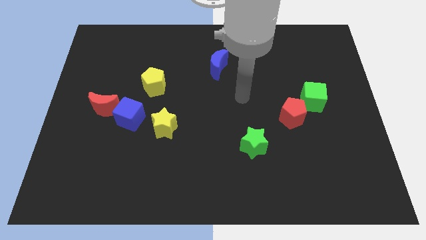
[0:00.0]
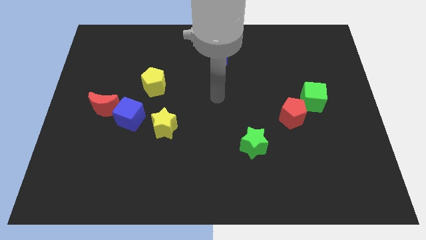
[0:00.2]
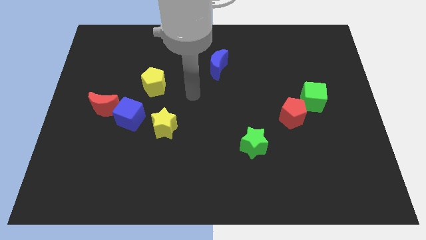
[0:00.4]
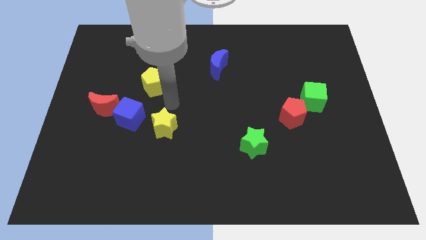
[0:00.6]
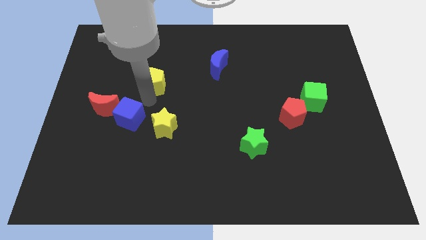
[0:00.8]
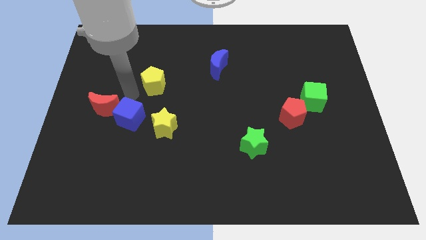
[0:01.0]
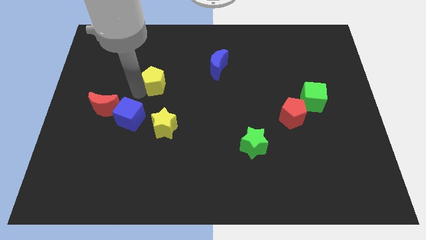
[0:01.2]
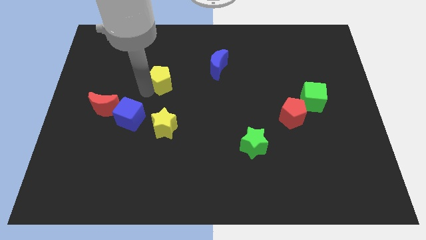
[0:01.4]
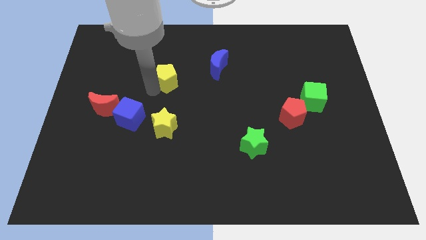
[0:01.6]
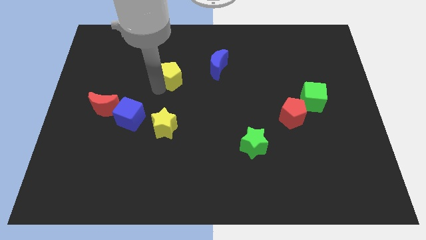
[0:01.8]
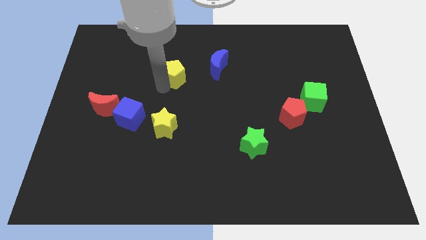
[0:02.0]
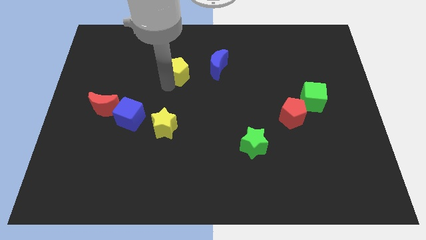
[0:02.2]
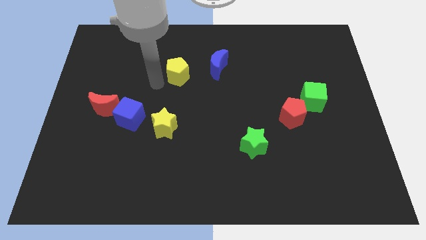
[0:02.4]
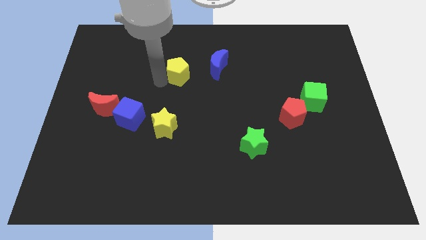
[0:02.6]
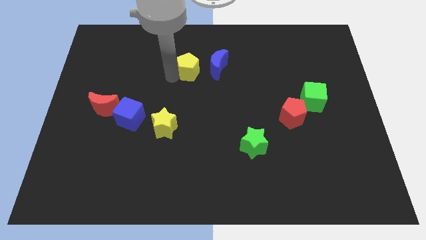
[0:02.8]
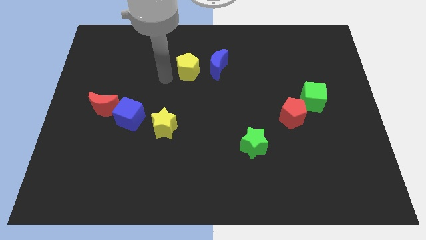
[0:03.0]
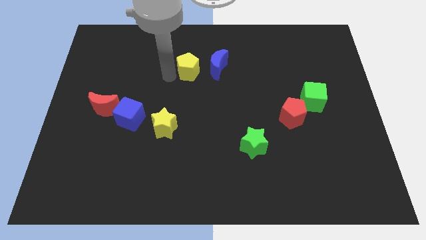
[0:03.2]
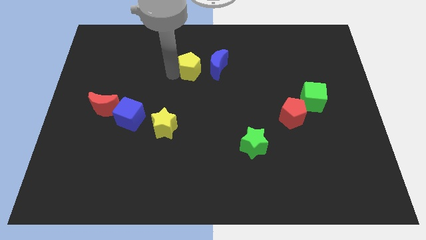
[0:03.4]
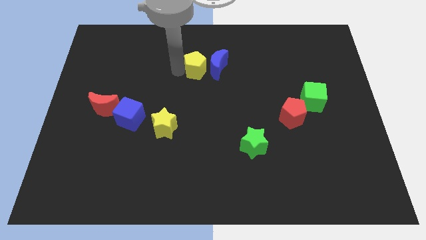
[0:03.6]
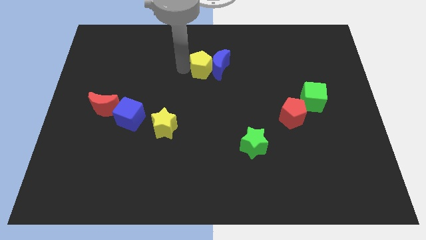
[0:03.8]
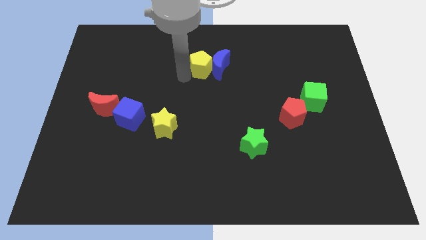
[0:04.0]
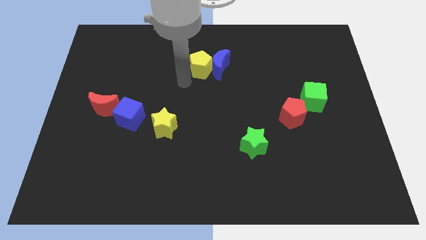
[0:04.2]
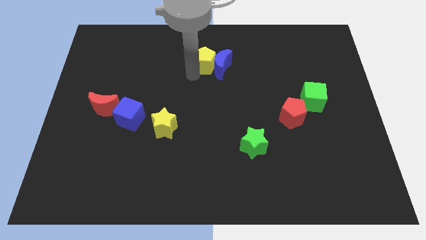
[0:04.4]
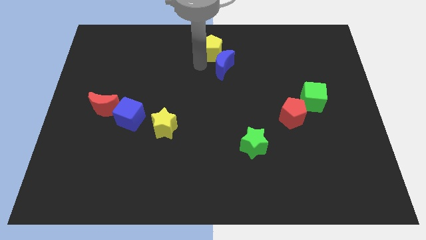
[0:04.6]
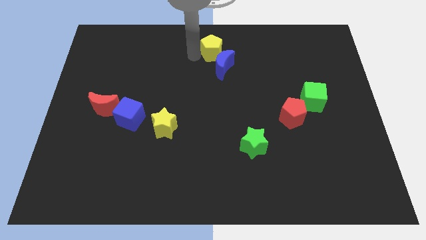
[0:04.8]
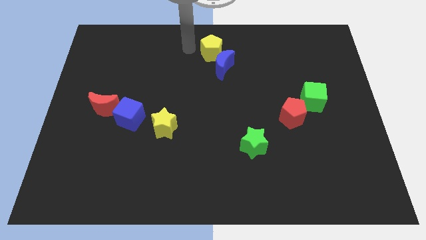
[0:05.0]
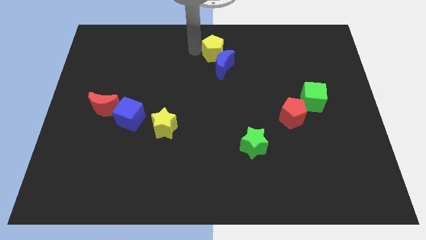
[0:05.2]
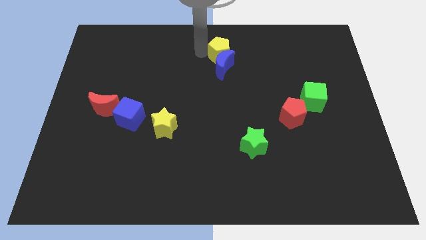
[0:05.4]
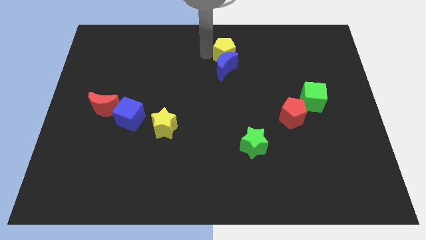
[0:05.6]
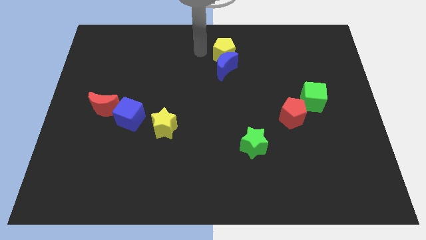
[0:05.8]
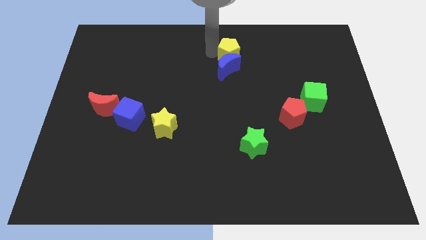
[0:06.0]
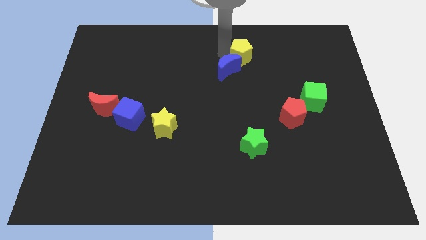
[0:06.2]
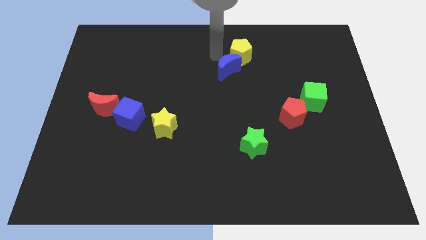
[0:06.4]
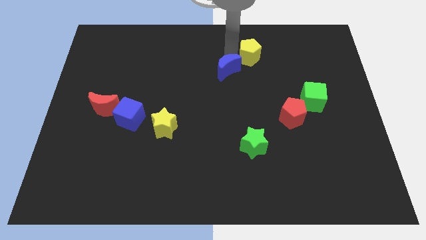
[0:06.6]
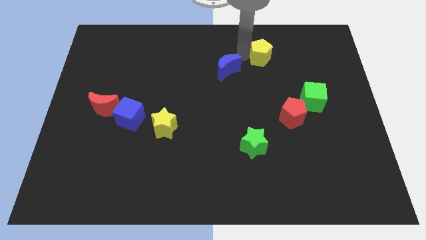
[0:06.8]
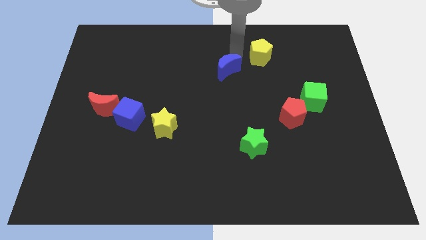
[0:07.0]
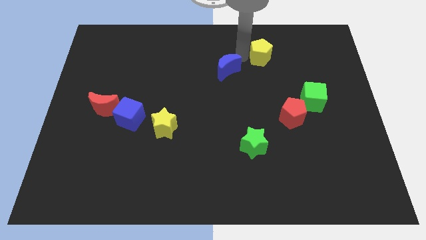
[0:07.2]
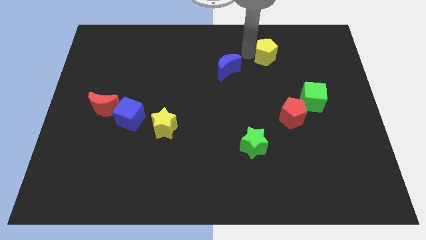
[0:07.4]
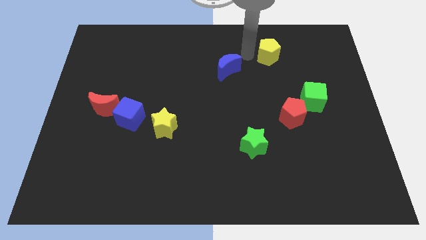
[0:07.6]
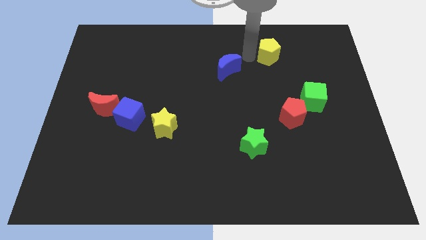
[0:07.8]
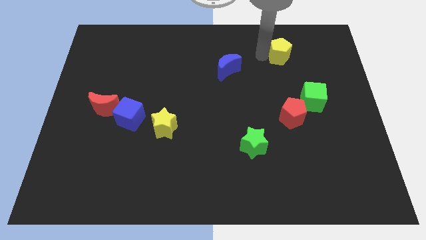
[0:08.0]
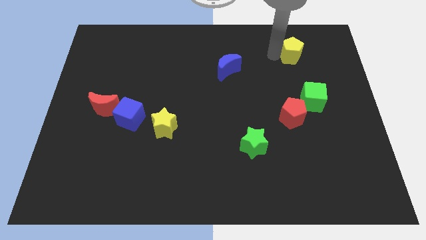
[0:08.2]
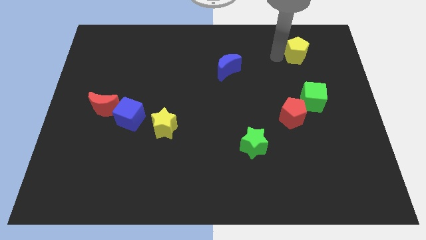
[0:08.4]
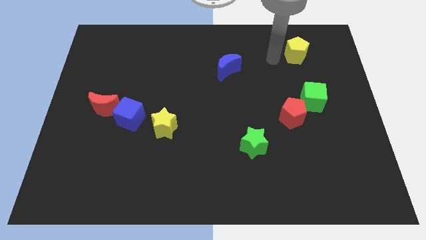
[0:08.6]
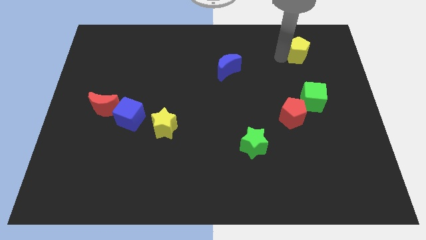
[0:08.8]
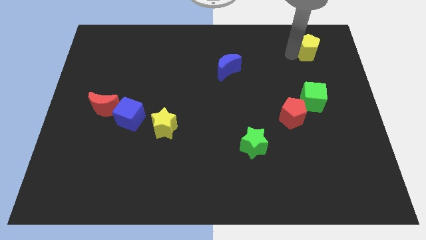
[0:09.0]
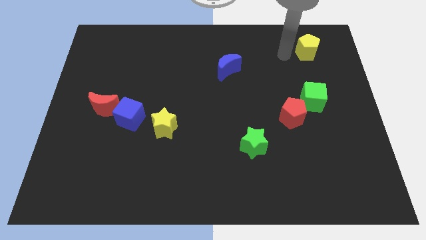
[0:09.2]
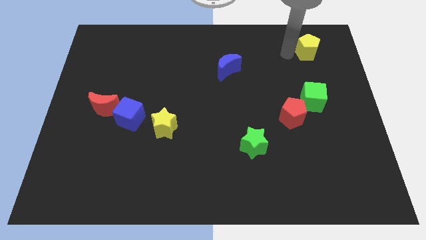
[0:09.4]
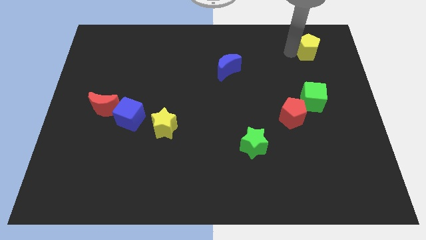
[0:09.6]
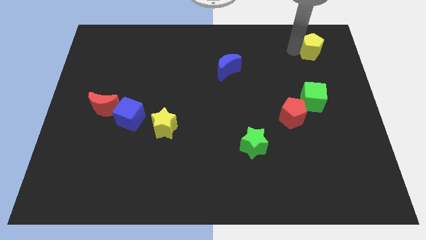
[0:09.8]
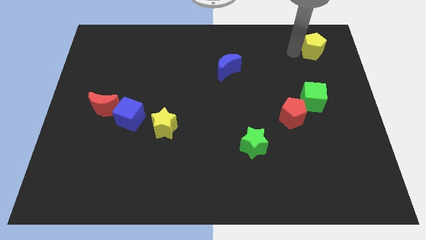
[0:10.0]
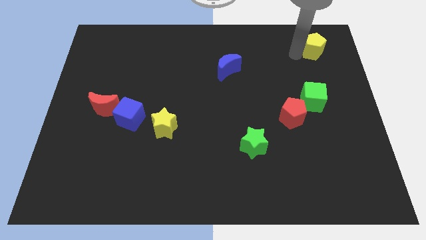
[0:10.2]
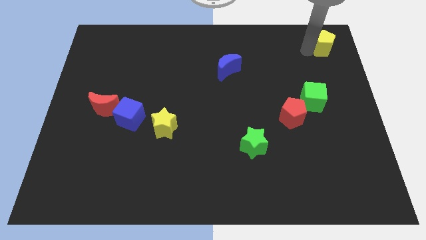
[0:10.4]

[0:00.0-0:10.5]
slide the yellow pentagon to the top right of the board

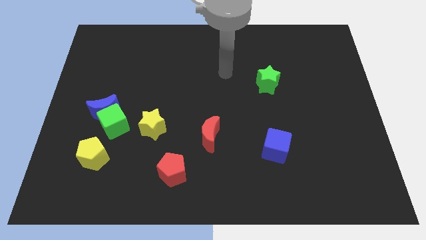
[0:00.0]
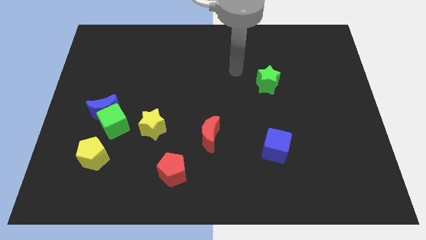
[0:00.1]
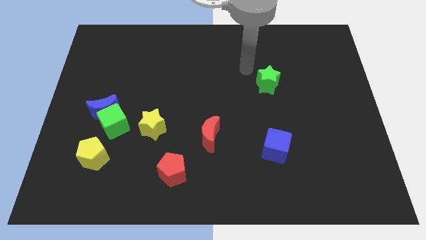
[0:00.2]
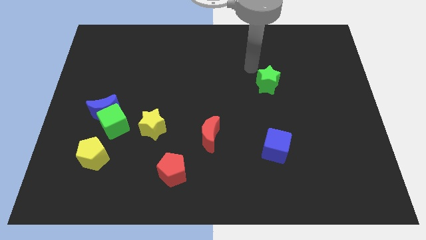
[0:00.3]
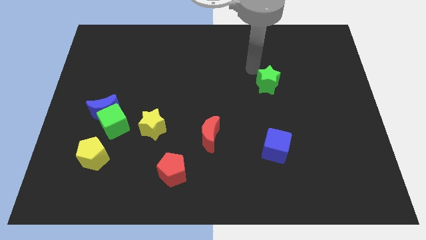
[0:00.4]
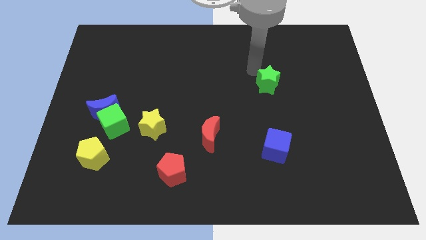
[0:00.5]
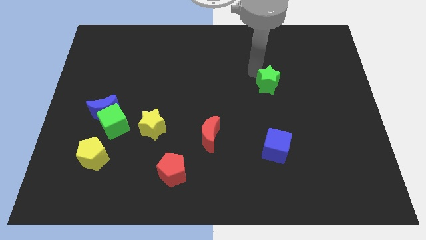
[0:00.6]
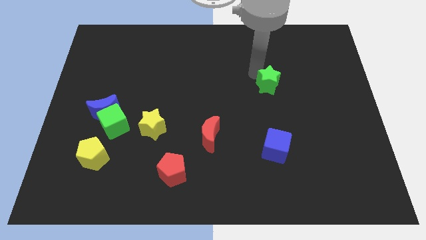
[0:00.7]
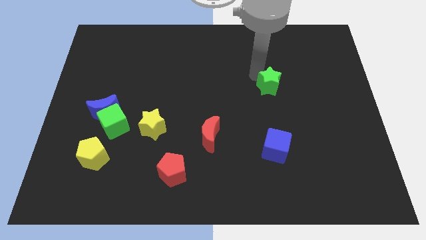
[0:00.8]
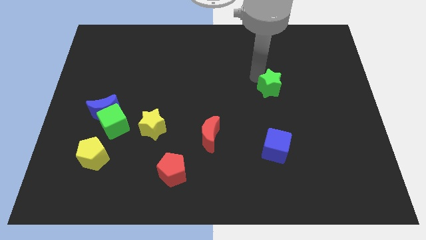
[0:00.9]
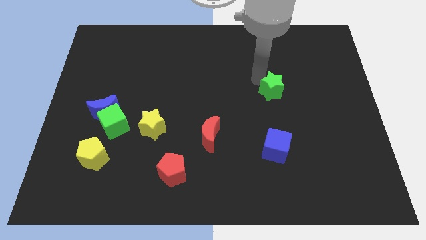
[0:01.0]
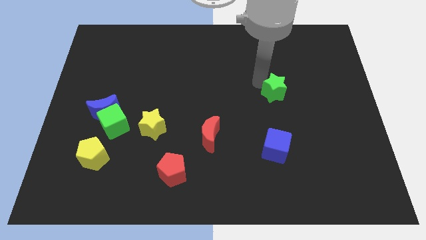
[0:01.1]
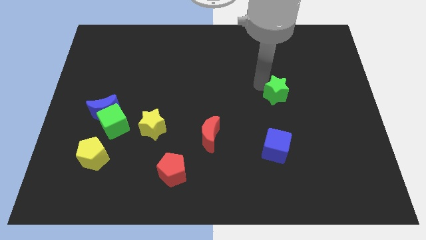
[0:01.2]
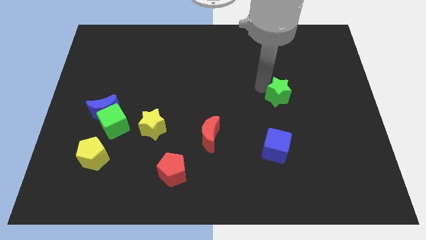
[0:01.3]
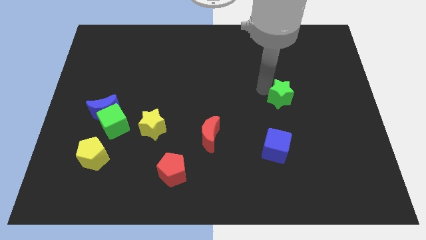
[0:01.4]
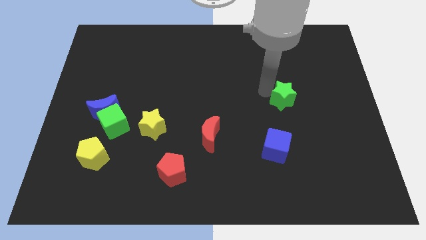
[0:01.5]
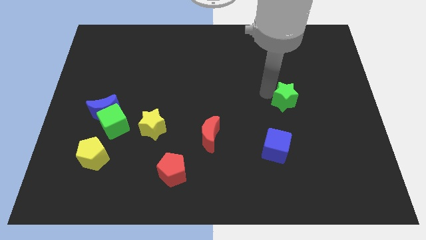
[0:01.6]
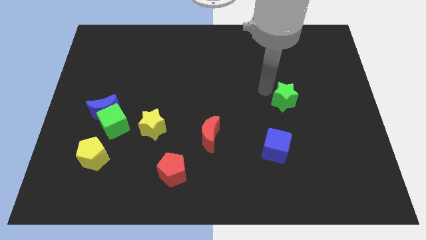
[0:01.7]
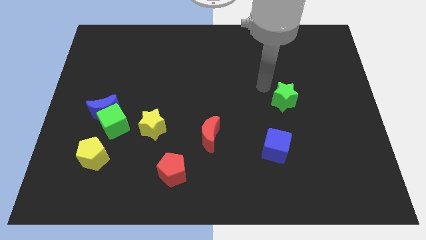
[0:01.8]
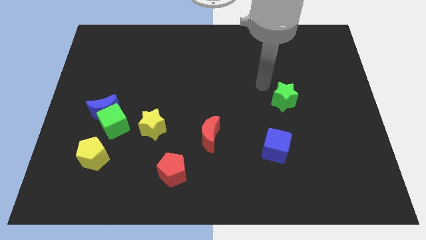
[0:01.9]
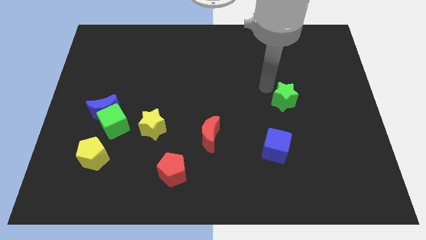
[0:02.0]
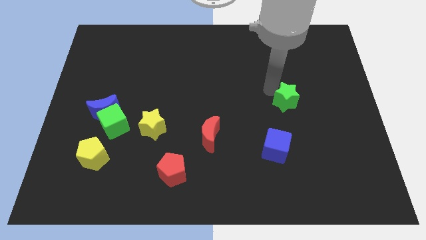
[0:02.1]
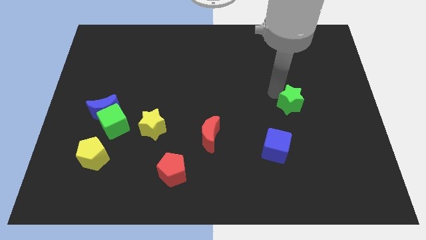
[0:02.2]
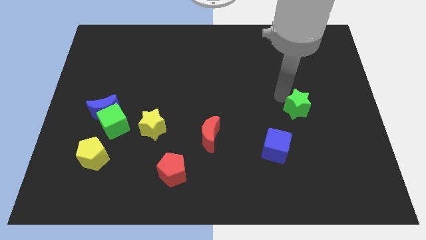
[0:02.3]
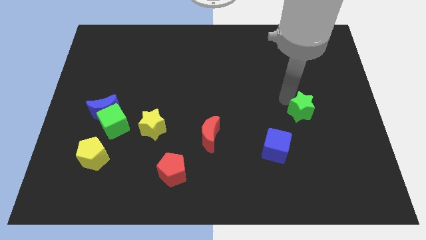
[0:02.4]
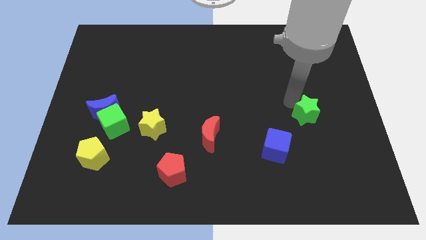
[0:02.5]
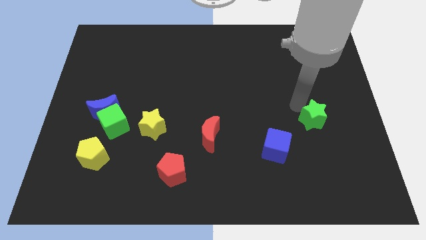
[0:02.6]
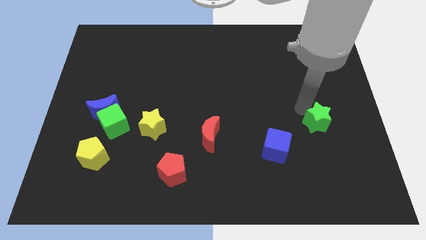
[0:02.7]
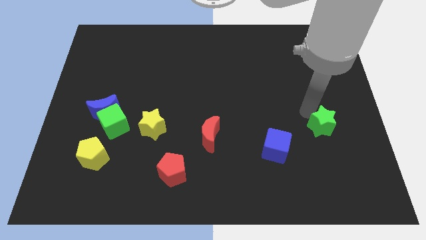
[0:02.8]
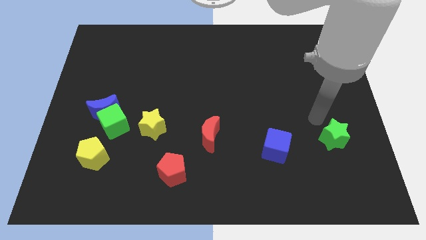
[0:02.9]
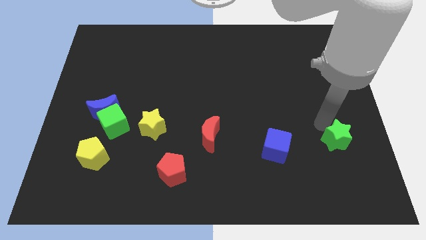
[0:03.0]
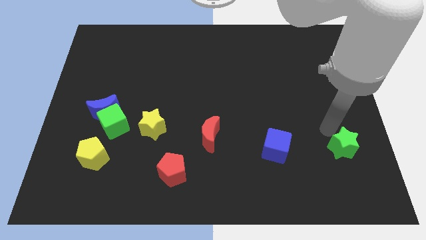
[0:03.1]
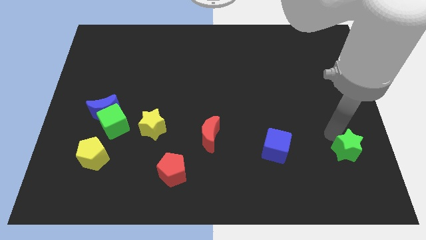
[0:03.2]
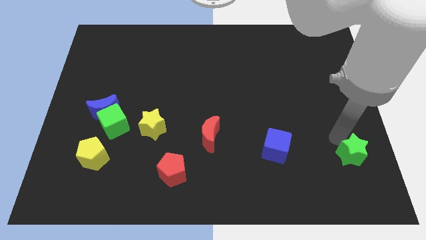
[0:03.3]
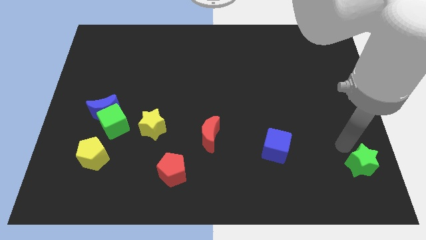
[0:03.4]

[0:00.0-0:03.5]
move the green star to the bottom right corner
